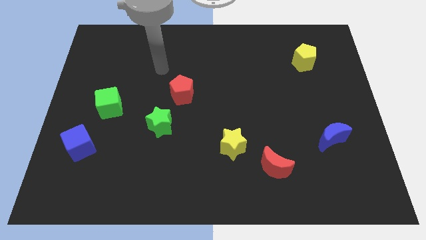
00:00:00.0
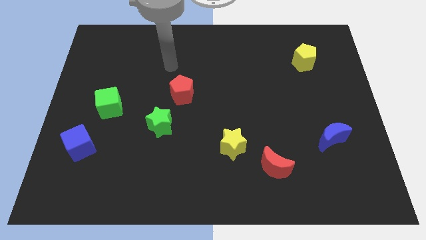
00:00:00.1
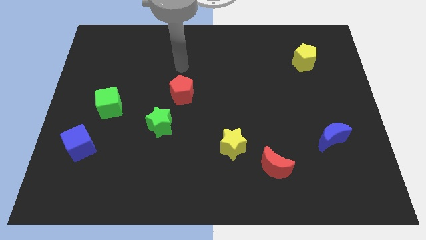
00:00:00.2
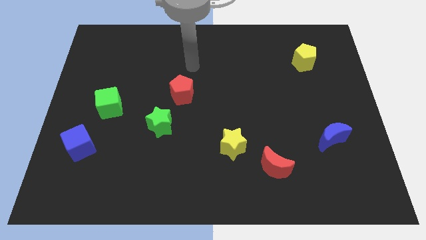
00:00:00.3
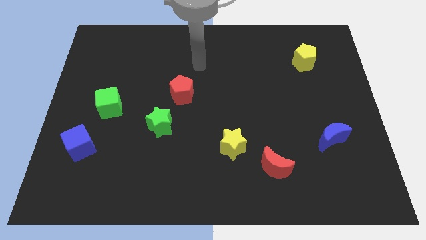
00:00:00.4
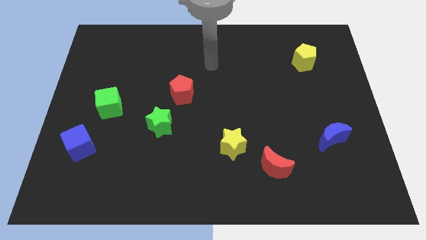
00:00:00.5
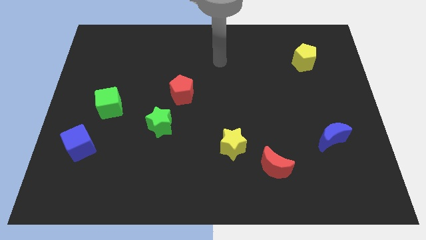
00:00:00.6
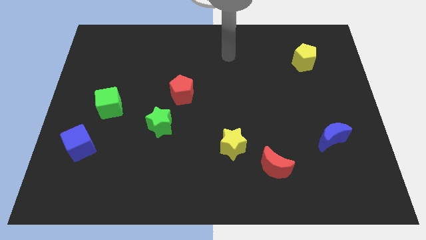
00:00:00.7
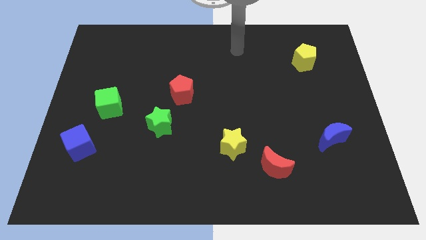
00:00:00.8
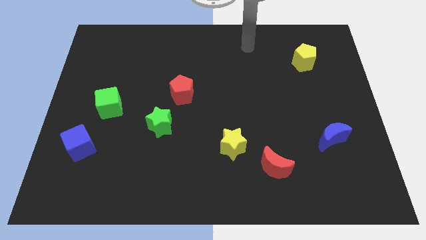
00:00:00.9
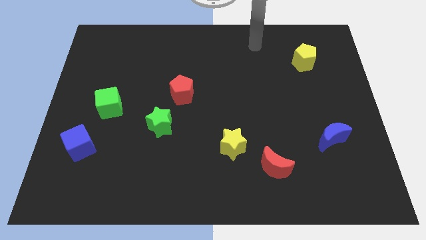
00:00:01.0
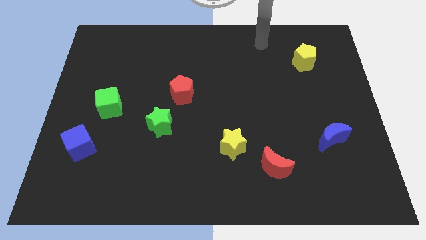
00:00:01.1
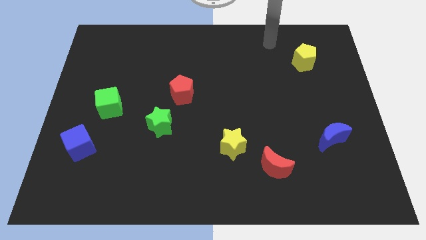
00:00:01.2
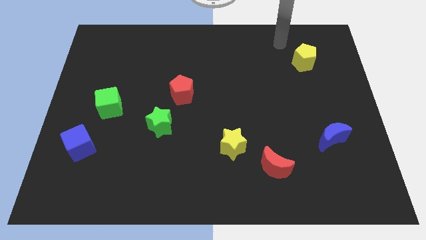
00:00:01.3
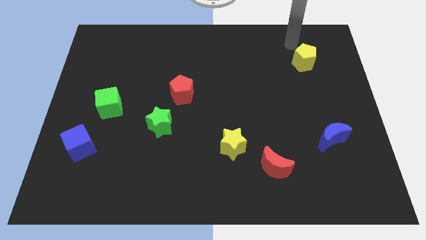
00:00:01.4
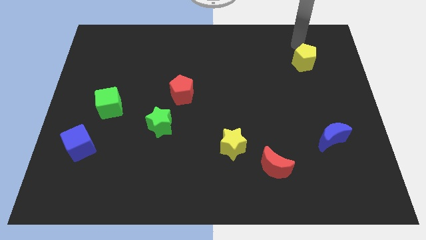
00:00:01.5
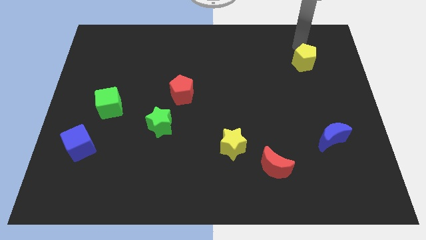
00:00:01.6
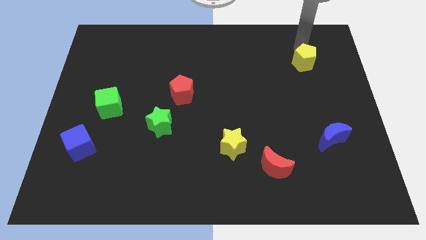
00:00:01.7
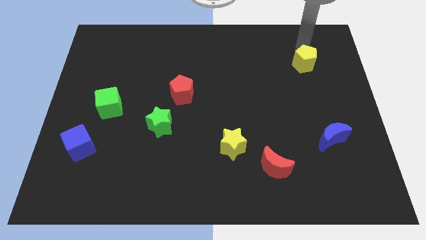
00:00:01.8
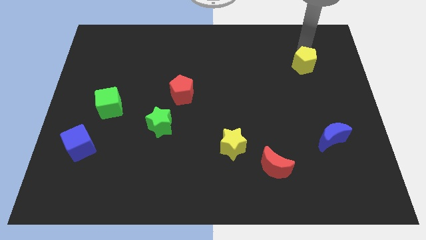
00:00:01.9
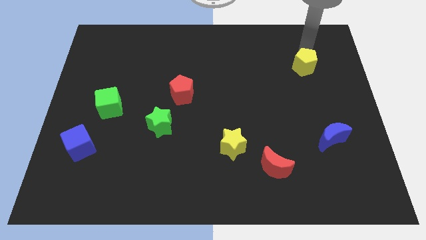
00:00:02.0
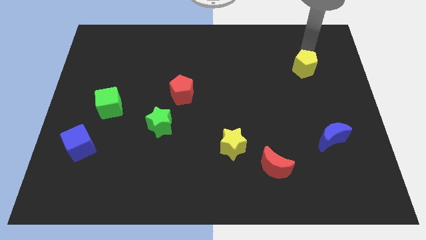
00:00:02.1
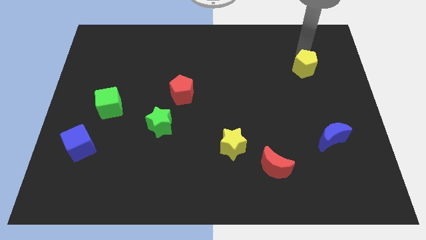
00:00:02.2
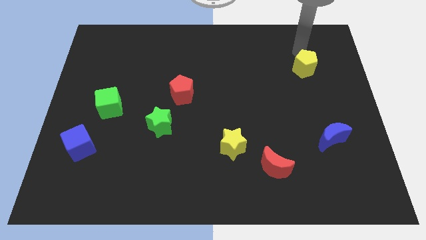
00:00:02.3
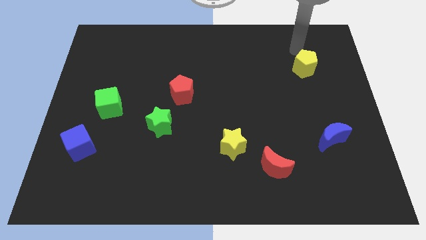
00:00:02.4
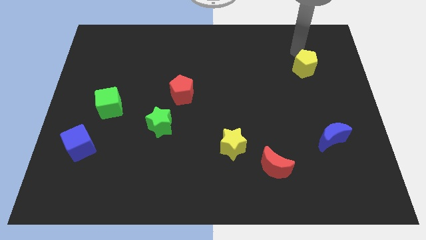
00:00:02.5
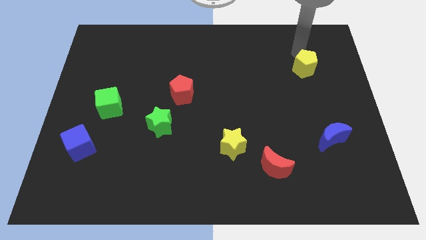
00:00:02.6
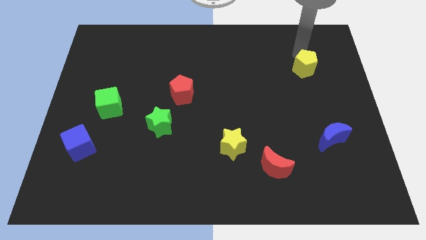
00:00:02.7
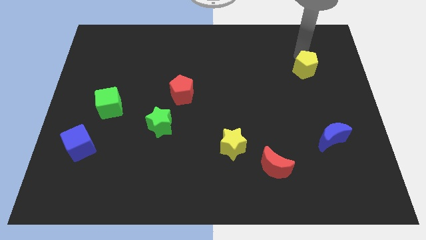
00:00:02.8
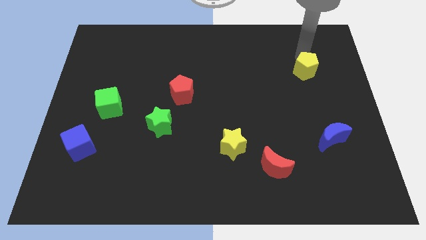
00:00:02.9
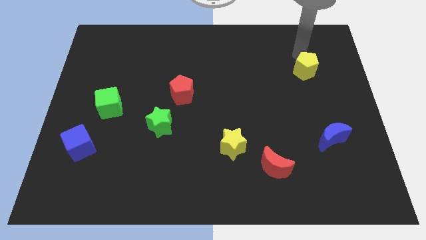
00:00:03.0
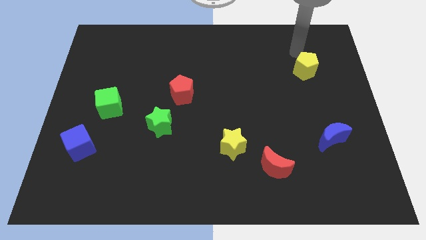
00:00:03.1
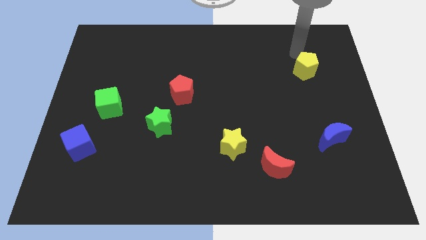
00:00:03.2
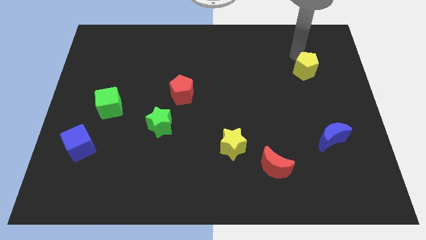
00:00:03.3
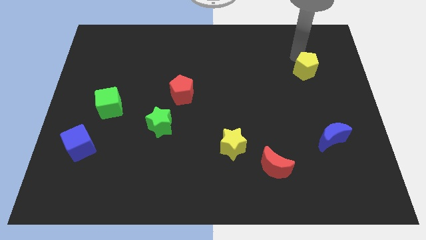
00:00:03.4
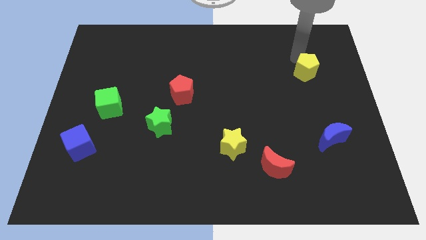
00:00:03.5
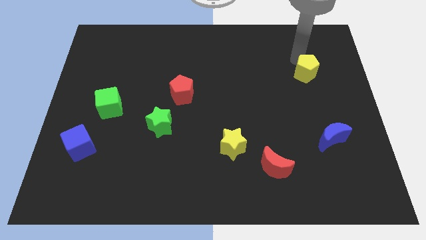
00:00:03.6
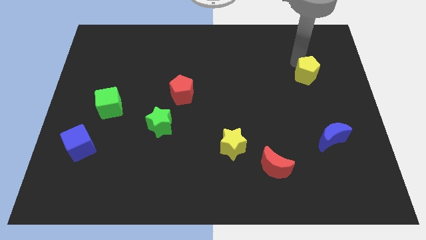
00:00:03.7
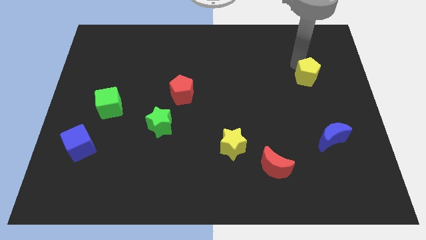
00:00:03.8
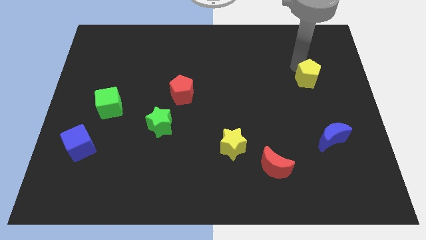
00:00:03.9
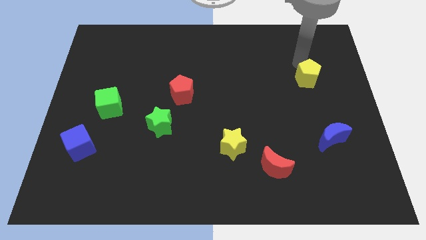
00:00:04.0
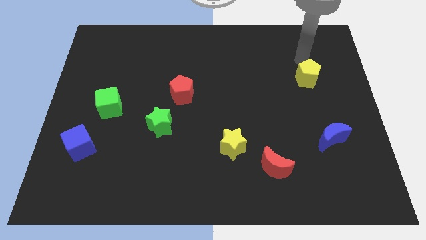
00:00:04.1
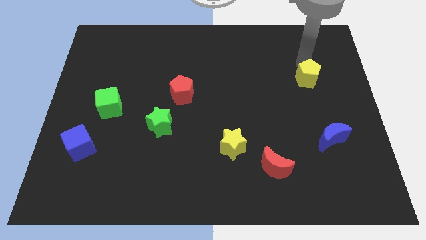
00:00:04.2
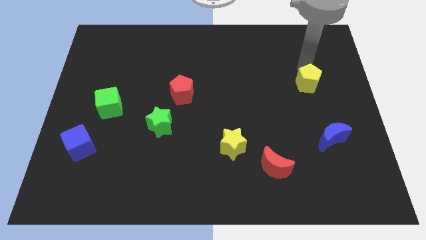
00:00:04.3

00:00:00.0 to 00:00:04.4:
slide the yellow pentagon slightly downwards

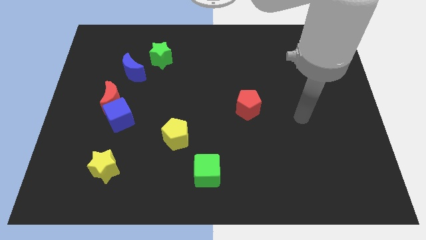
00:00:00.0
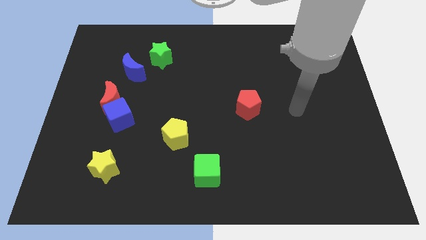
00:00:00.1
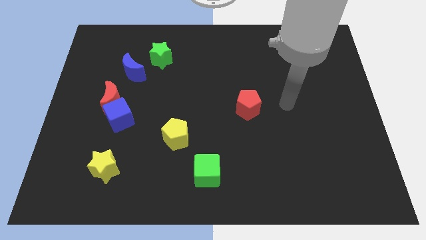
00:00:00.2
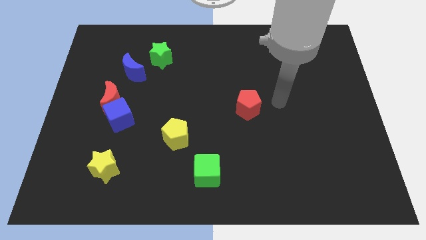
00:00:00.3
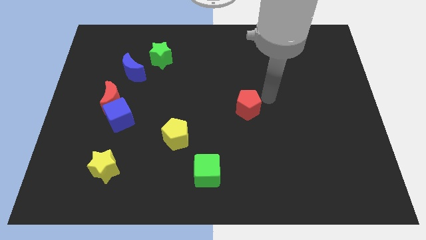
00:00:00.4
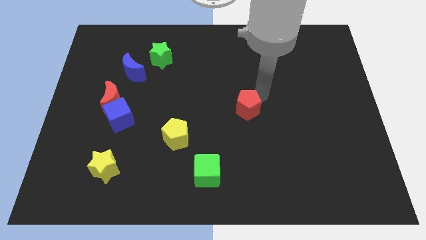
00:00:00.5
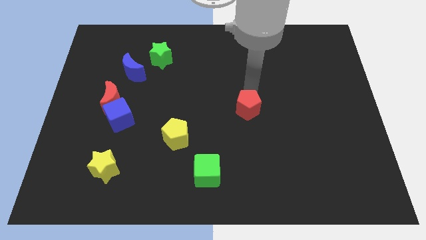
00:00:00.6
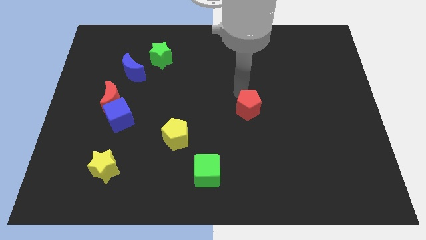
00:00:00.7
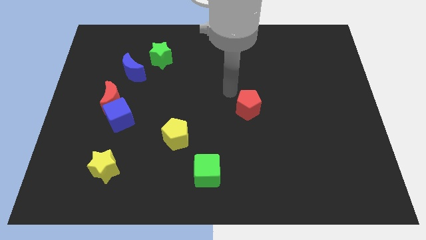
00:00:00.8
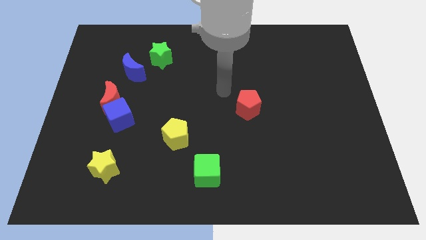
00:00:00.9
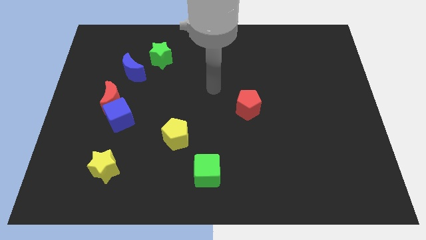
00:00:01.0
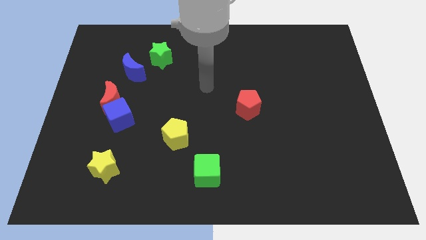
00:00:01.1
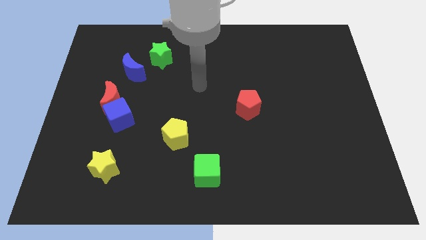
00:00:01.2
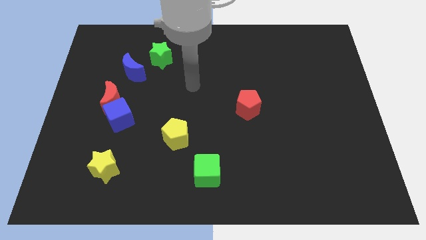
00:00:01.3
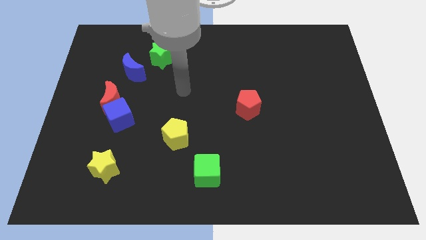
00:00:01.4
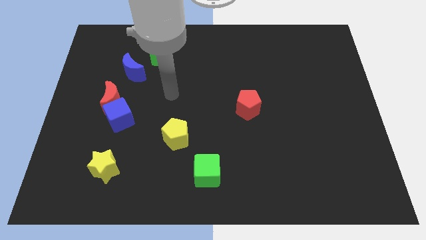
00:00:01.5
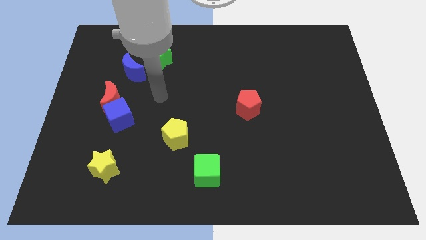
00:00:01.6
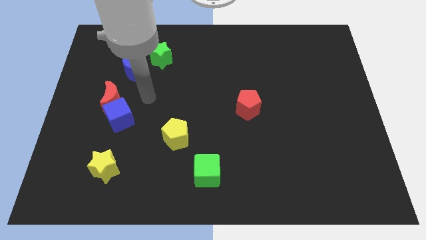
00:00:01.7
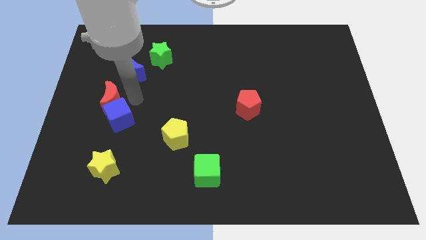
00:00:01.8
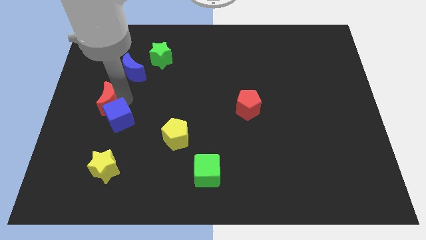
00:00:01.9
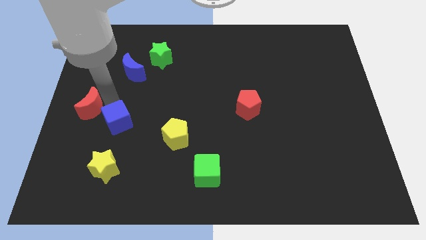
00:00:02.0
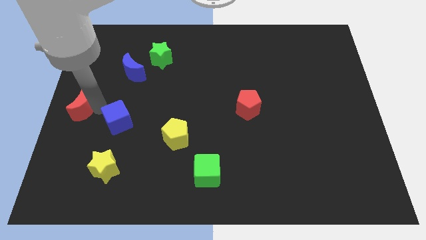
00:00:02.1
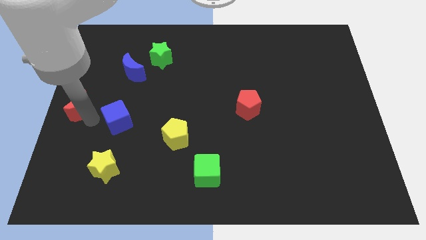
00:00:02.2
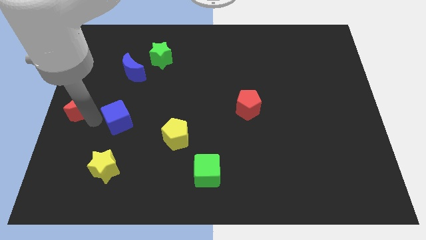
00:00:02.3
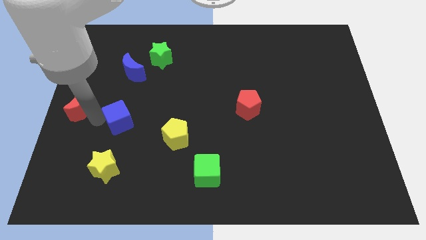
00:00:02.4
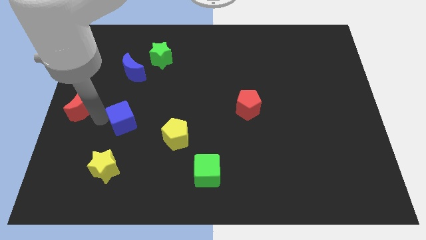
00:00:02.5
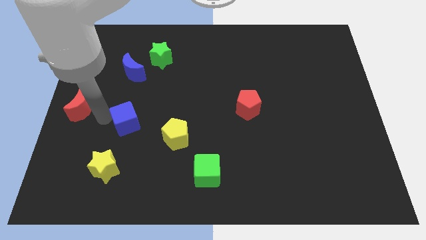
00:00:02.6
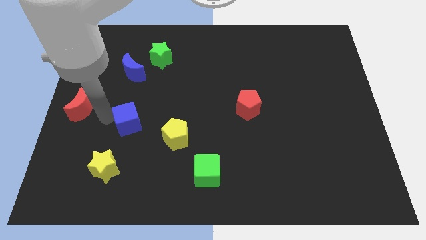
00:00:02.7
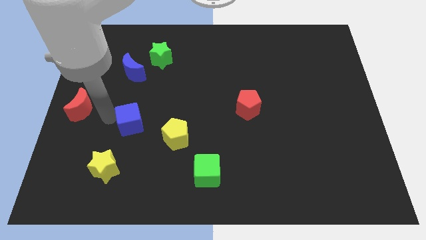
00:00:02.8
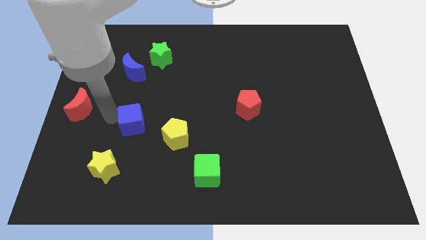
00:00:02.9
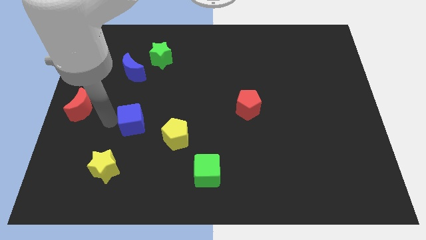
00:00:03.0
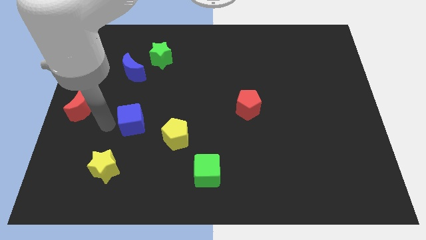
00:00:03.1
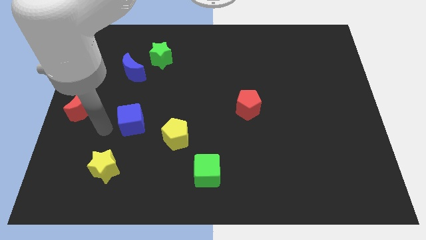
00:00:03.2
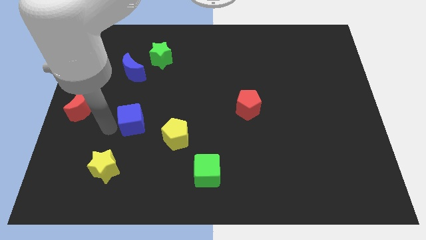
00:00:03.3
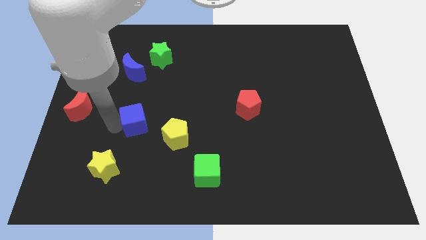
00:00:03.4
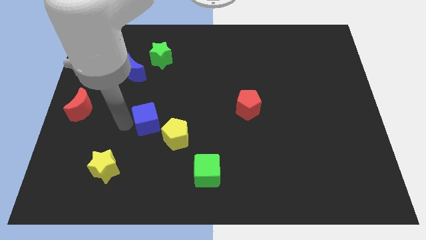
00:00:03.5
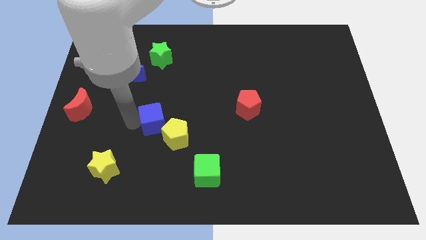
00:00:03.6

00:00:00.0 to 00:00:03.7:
slightly move the blue cube right
